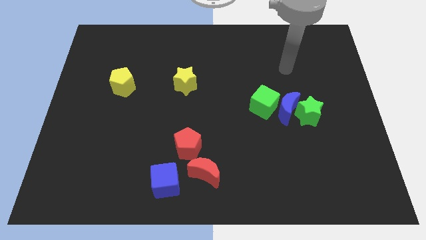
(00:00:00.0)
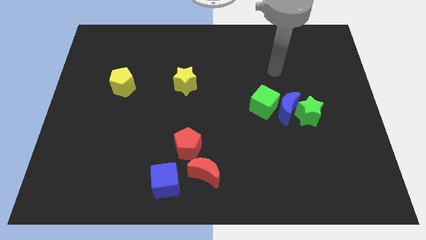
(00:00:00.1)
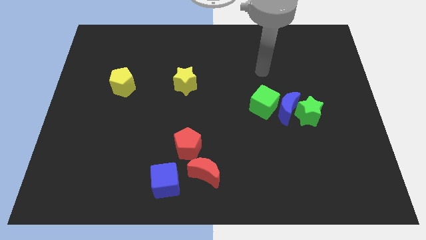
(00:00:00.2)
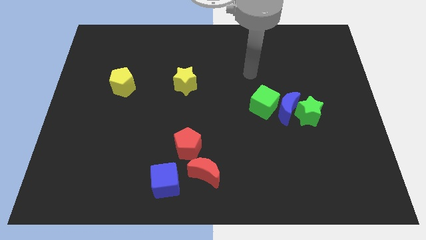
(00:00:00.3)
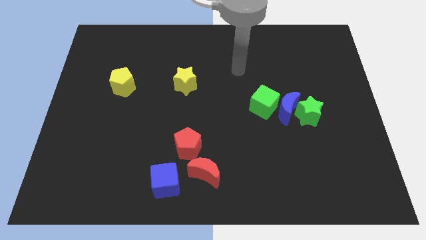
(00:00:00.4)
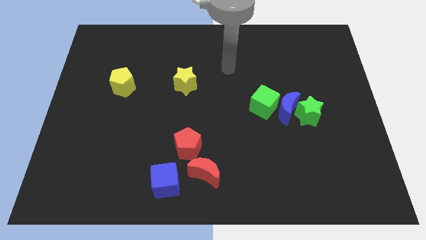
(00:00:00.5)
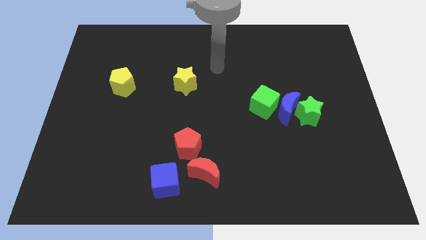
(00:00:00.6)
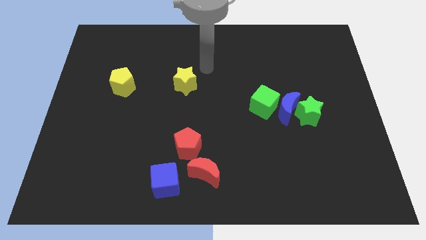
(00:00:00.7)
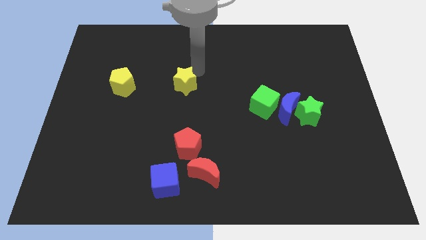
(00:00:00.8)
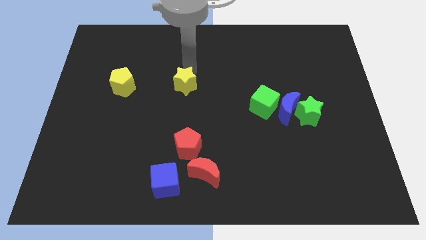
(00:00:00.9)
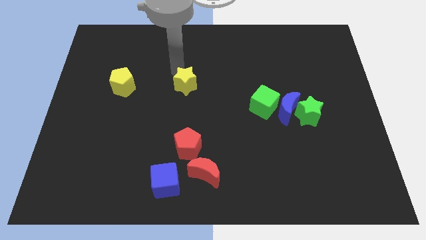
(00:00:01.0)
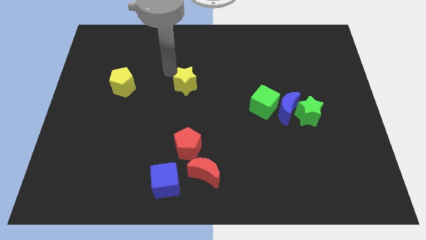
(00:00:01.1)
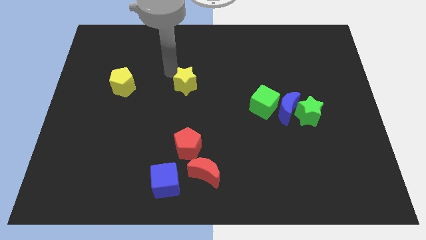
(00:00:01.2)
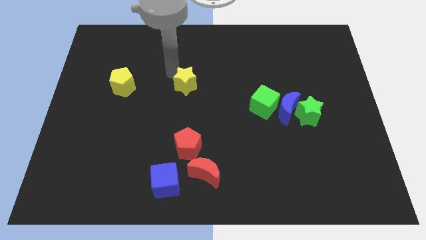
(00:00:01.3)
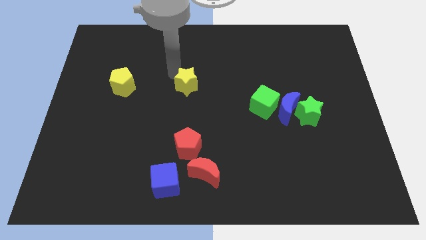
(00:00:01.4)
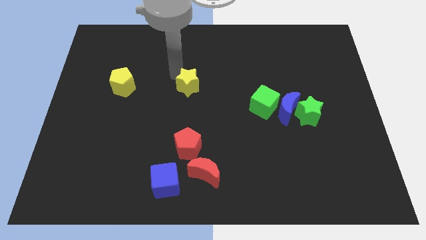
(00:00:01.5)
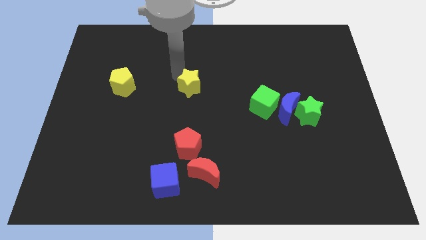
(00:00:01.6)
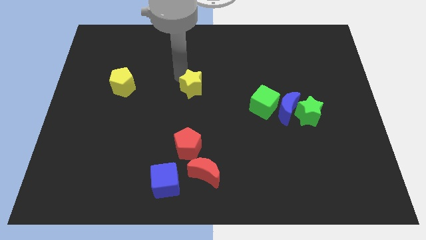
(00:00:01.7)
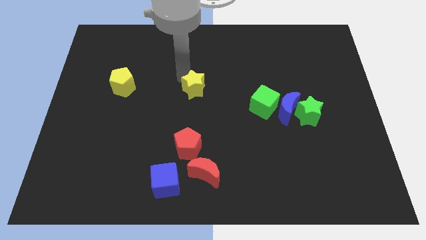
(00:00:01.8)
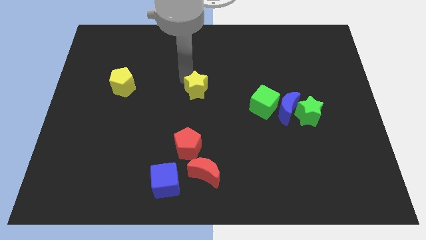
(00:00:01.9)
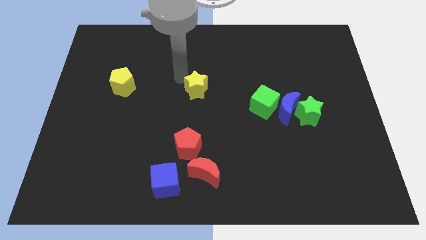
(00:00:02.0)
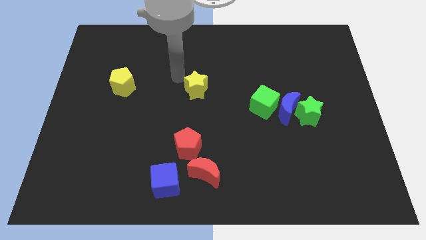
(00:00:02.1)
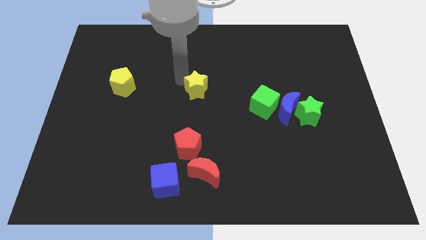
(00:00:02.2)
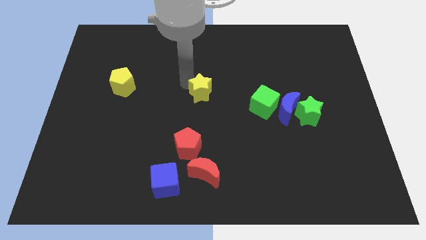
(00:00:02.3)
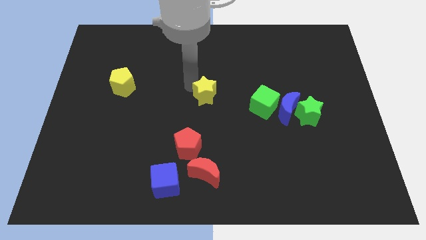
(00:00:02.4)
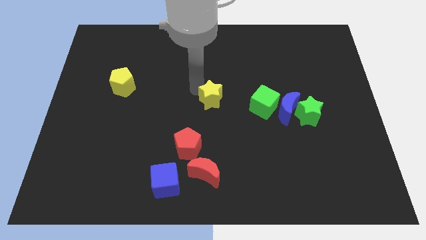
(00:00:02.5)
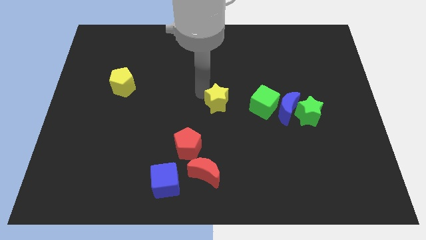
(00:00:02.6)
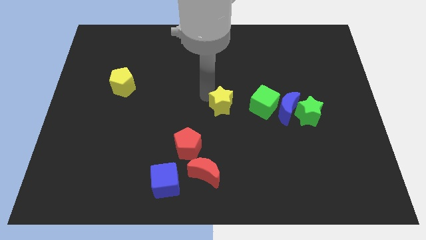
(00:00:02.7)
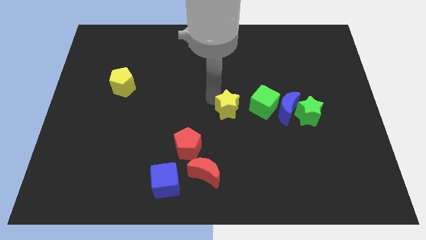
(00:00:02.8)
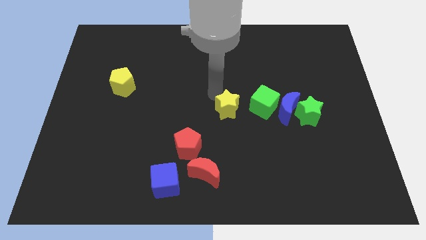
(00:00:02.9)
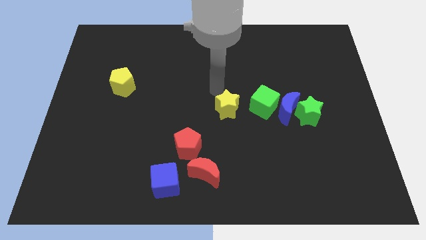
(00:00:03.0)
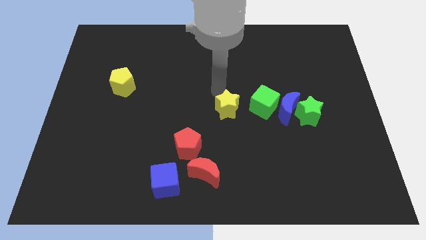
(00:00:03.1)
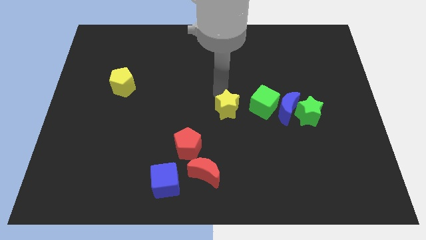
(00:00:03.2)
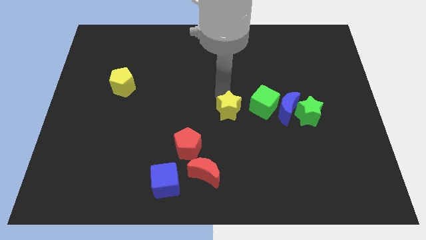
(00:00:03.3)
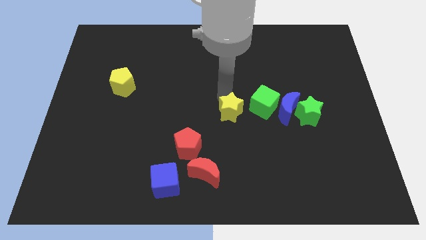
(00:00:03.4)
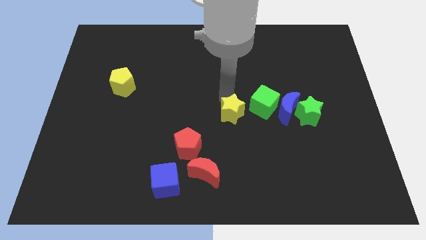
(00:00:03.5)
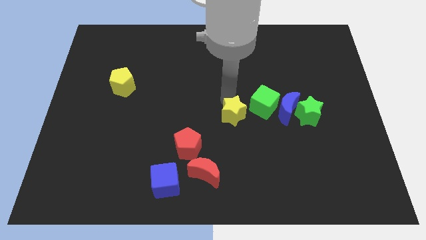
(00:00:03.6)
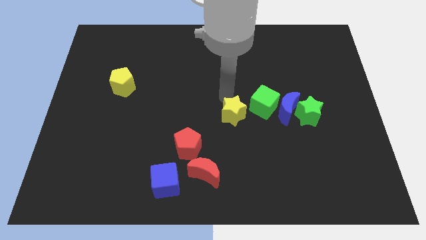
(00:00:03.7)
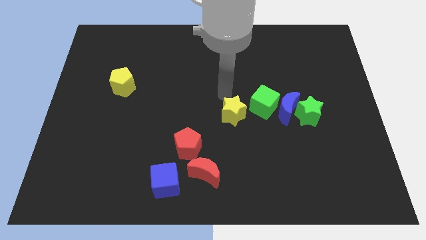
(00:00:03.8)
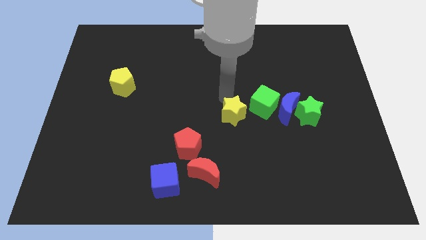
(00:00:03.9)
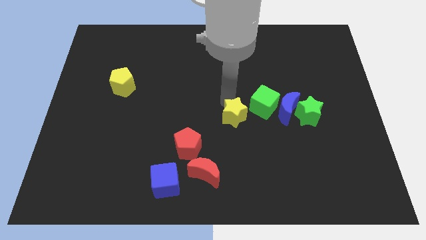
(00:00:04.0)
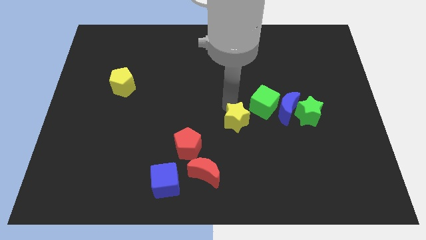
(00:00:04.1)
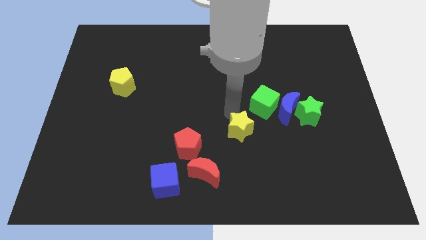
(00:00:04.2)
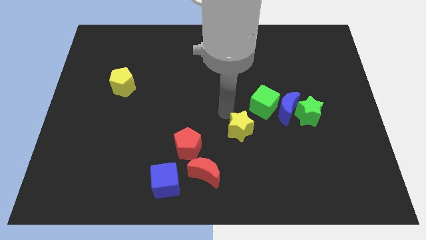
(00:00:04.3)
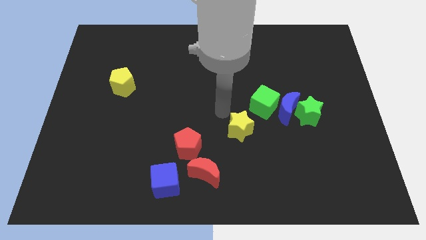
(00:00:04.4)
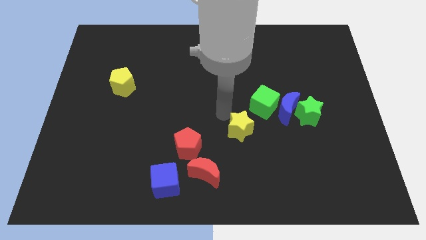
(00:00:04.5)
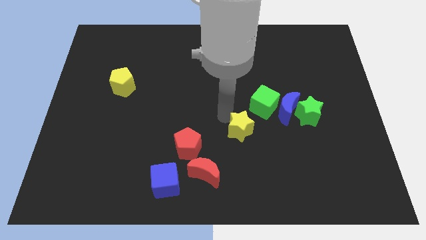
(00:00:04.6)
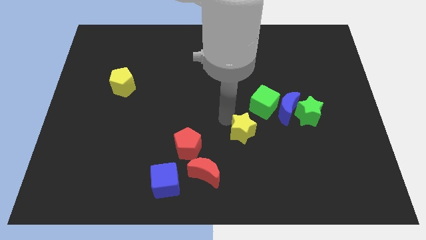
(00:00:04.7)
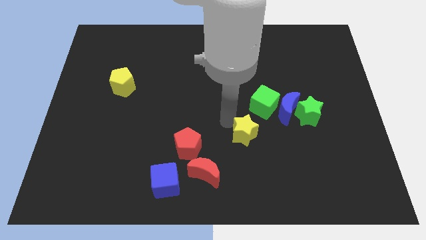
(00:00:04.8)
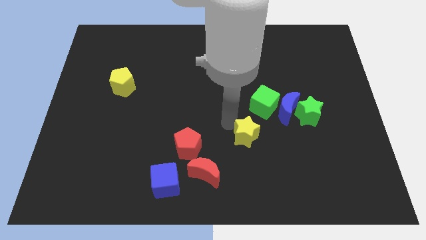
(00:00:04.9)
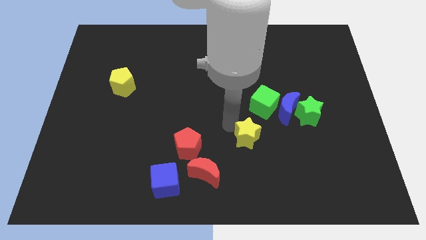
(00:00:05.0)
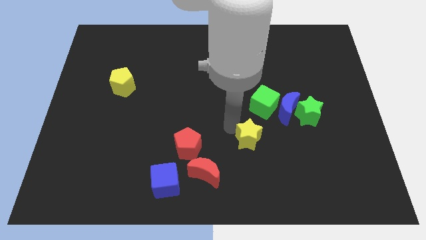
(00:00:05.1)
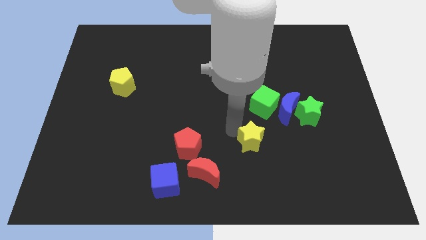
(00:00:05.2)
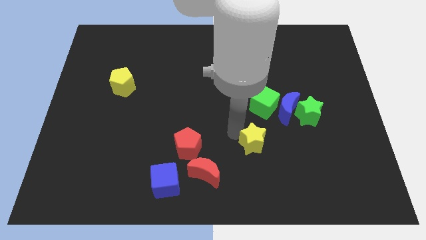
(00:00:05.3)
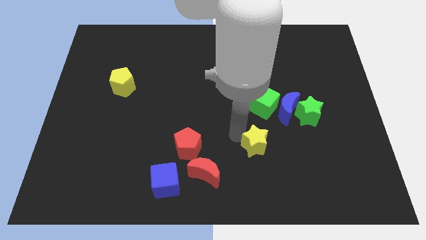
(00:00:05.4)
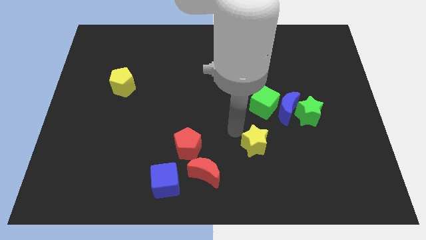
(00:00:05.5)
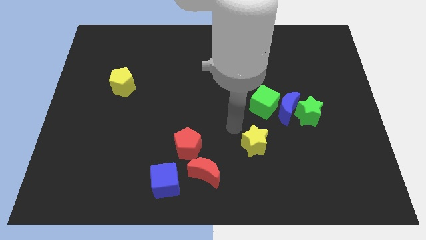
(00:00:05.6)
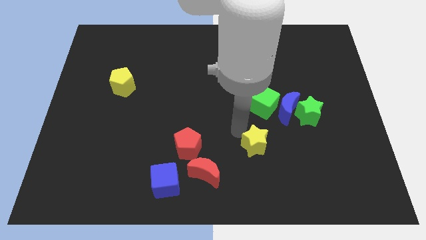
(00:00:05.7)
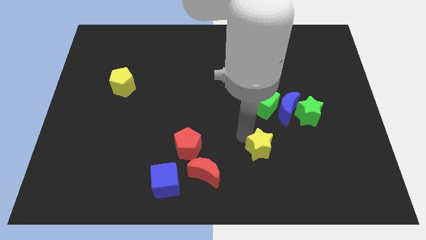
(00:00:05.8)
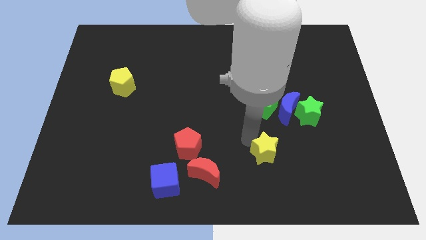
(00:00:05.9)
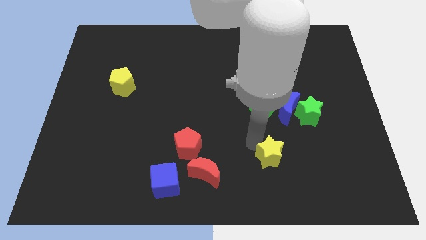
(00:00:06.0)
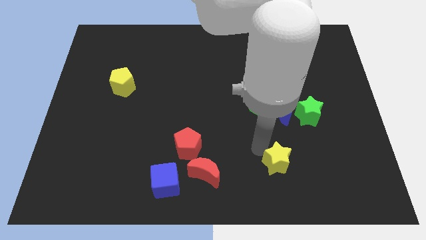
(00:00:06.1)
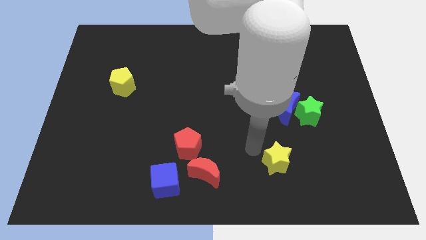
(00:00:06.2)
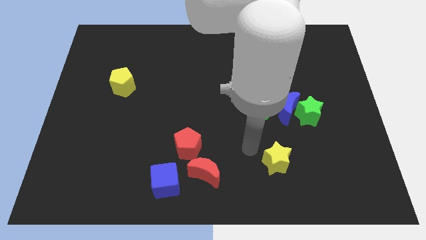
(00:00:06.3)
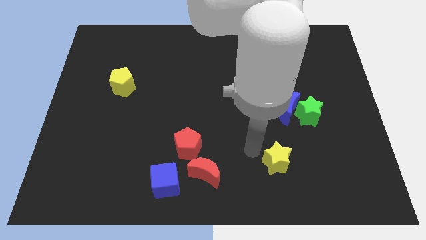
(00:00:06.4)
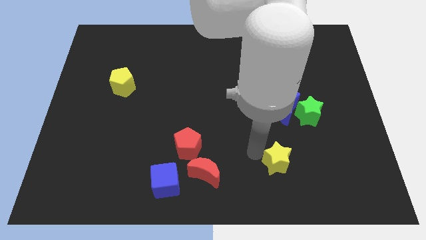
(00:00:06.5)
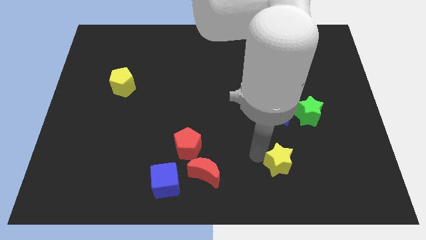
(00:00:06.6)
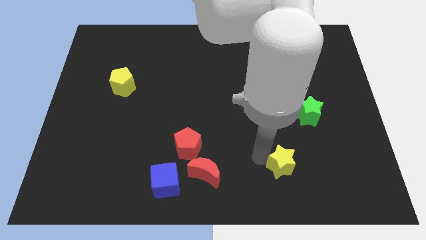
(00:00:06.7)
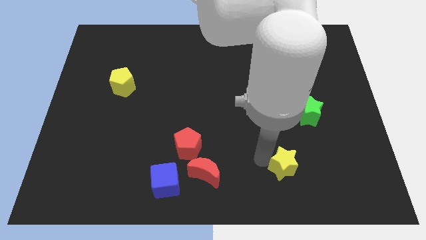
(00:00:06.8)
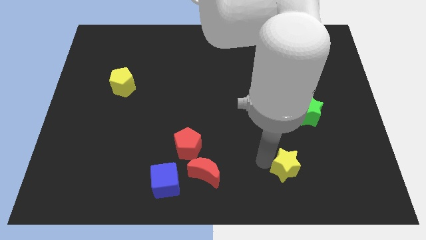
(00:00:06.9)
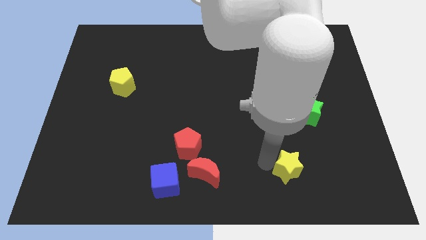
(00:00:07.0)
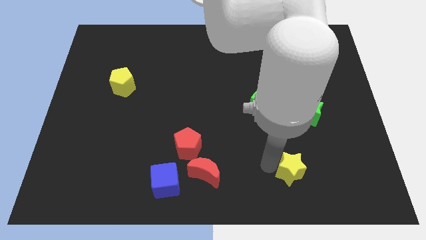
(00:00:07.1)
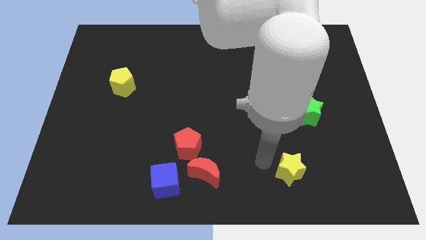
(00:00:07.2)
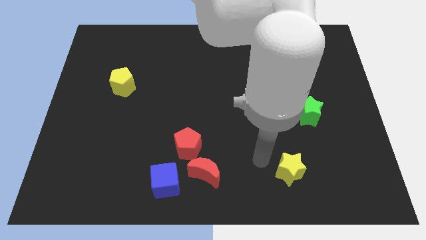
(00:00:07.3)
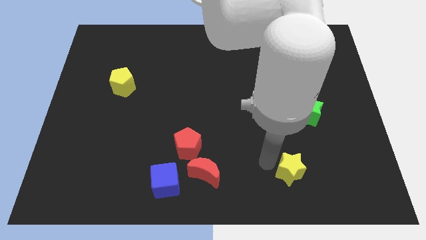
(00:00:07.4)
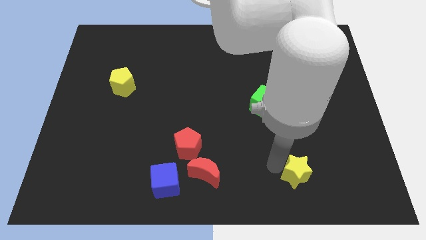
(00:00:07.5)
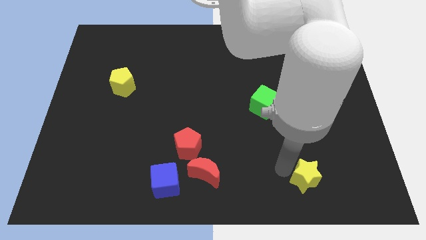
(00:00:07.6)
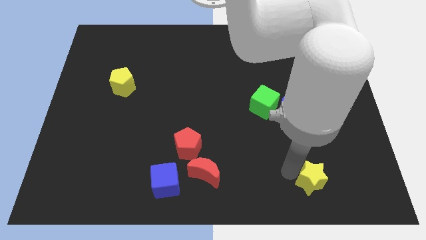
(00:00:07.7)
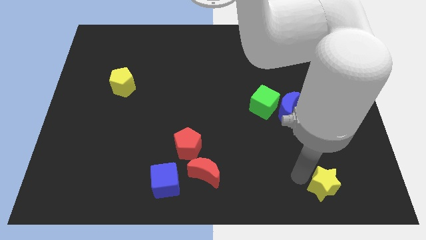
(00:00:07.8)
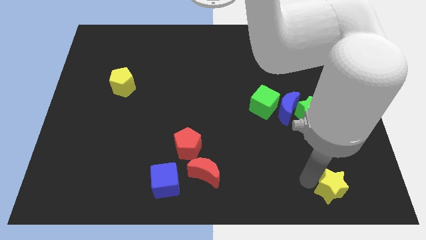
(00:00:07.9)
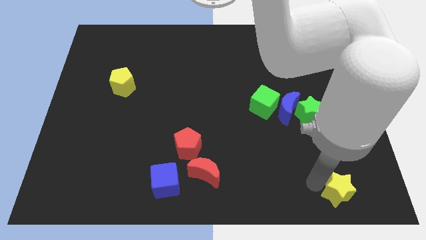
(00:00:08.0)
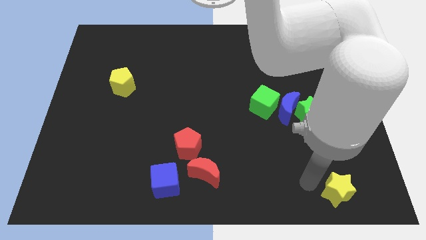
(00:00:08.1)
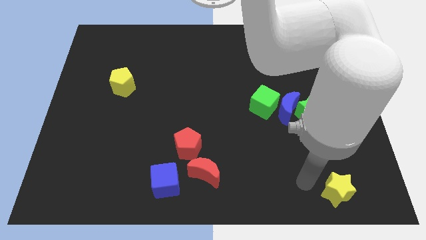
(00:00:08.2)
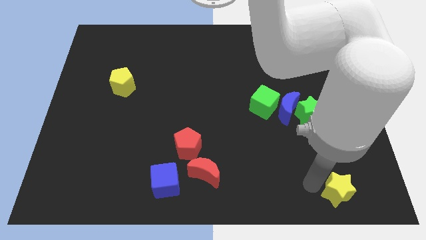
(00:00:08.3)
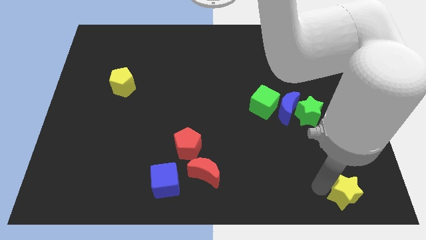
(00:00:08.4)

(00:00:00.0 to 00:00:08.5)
put the yellow star to the bottom right corner
